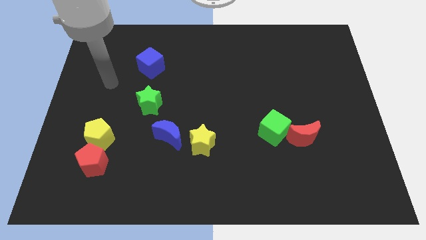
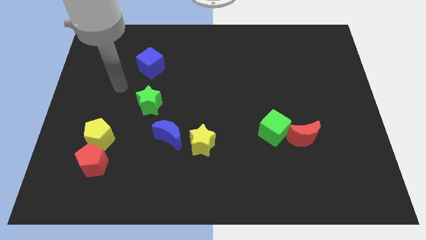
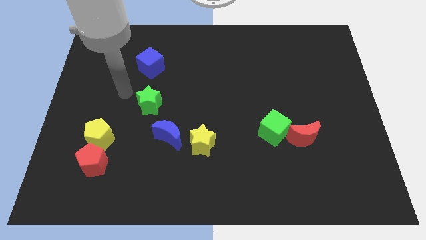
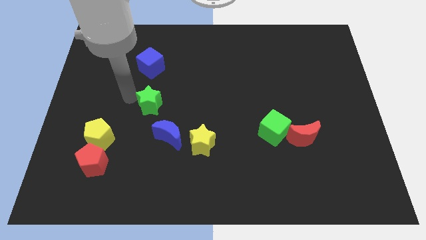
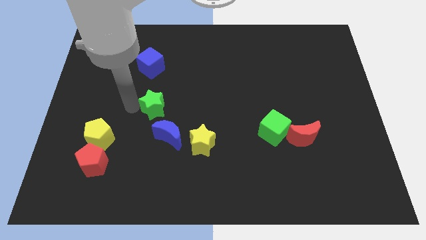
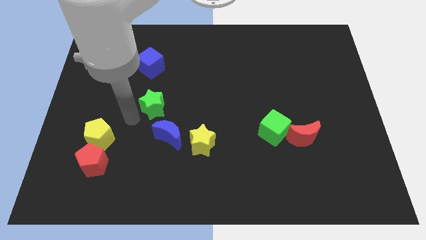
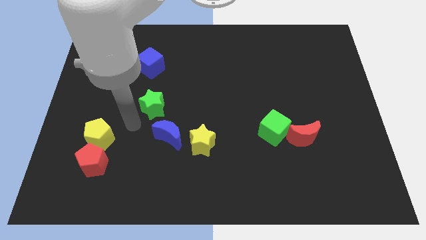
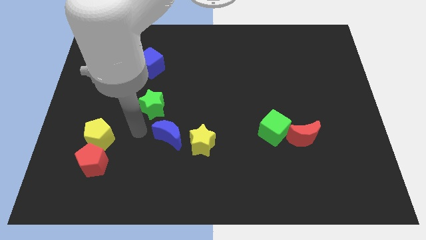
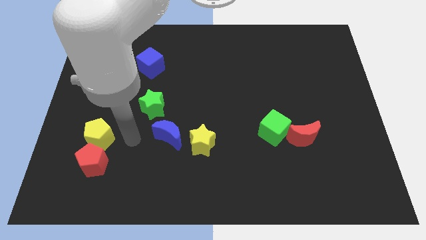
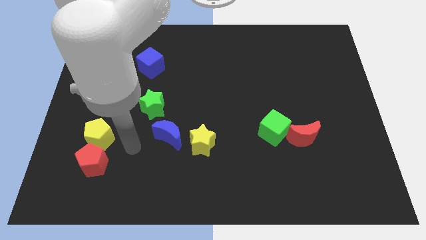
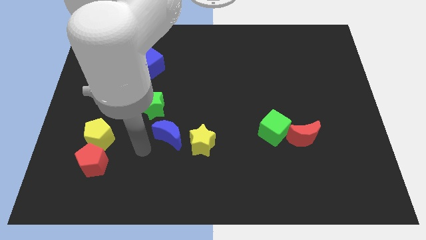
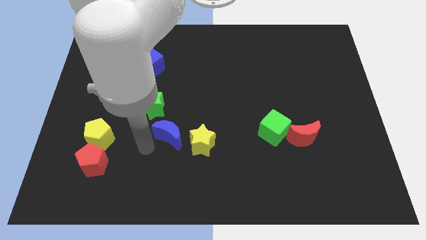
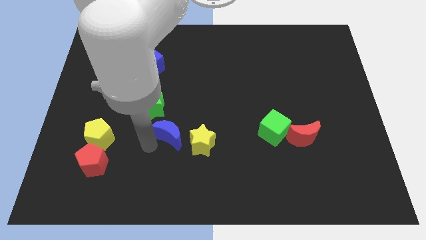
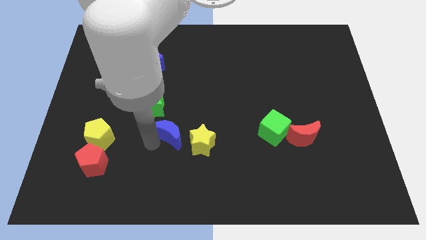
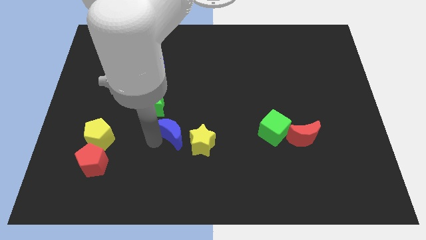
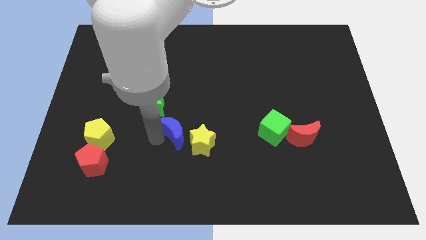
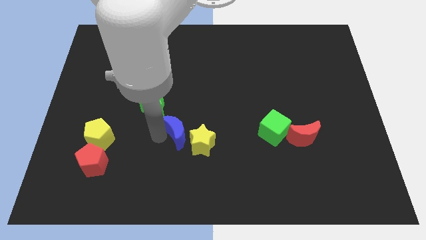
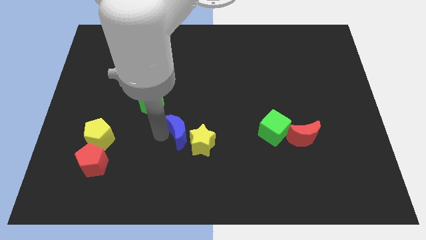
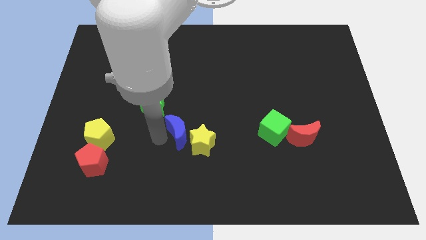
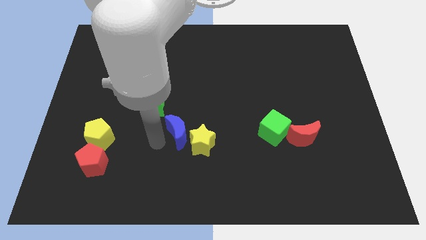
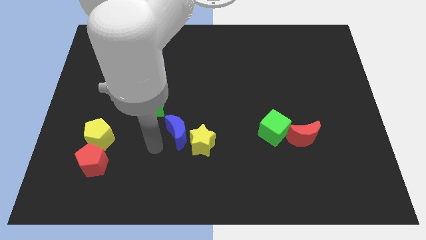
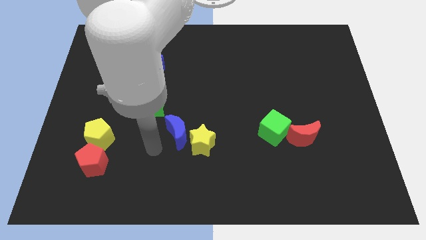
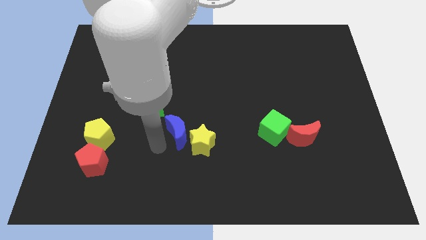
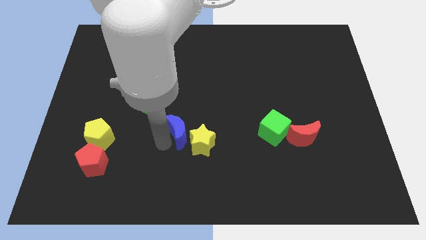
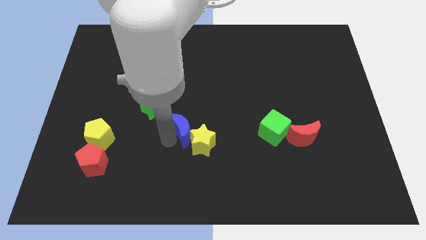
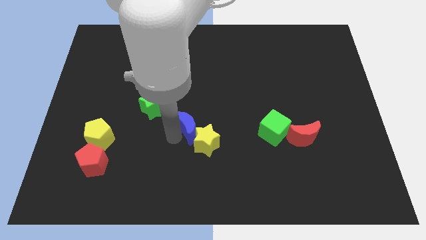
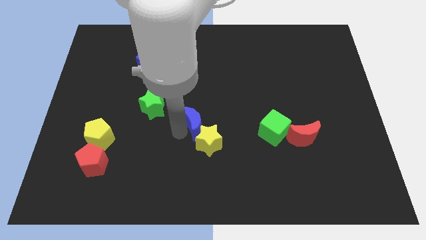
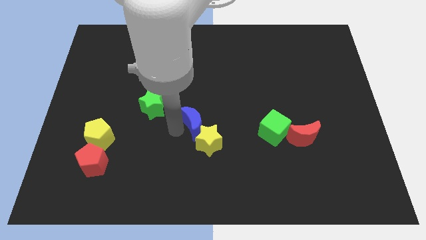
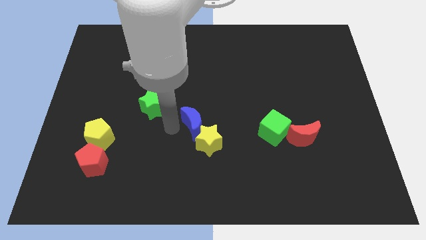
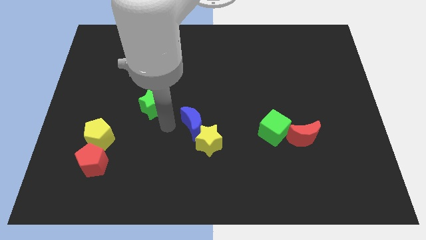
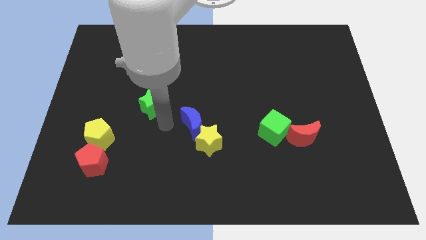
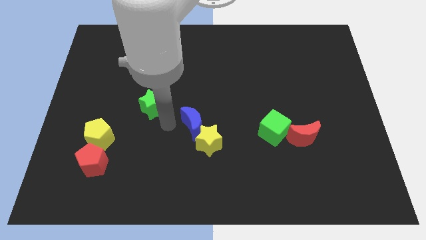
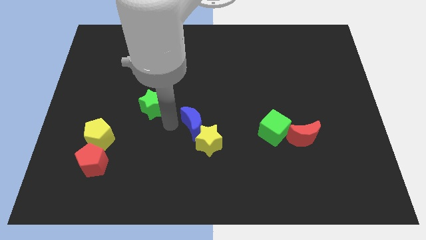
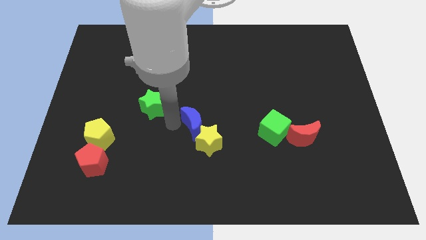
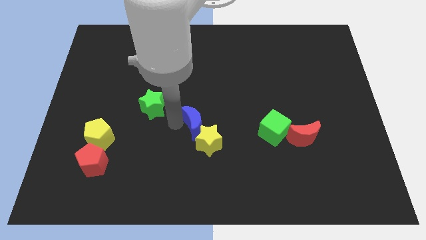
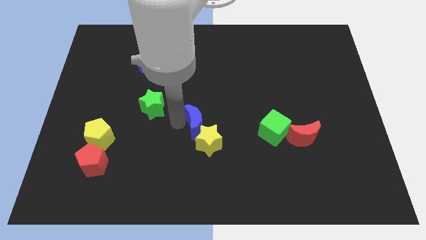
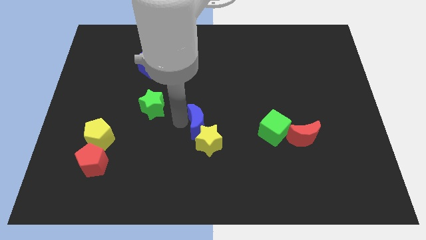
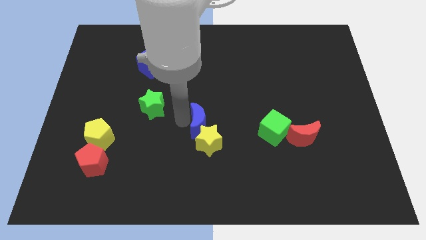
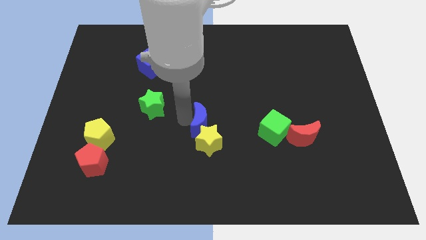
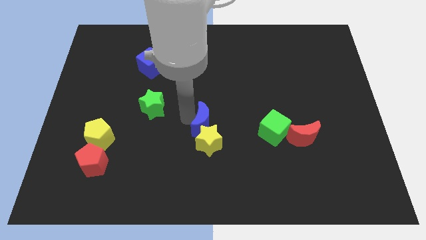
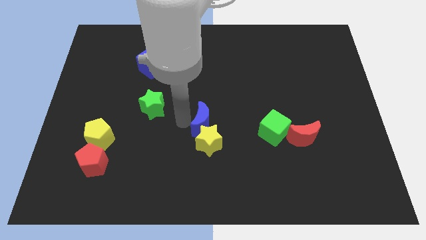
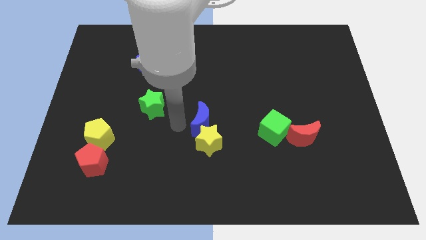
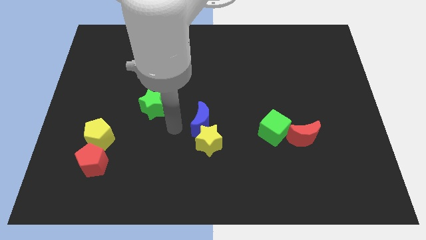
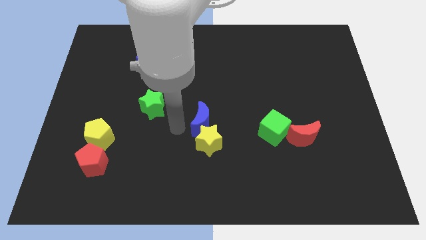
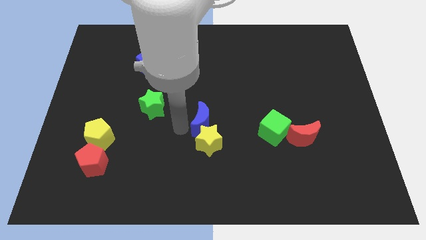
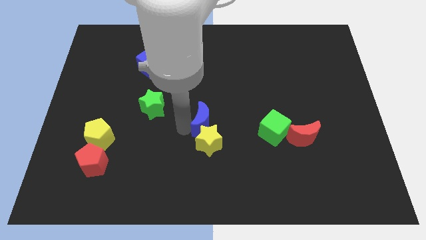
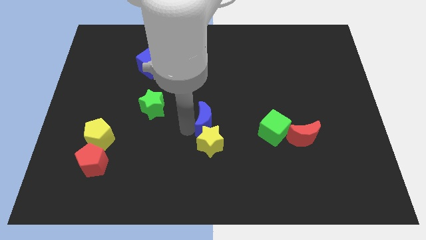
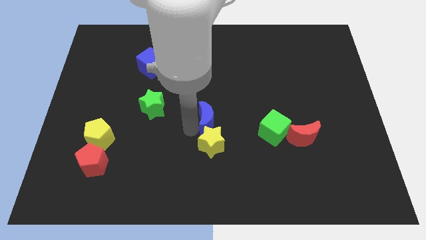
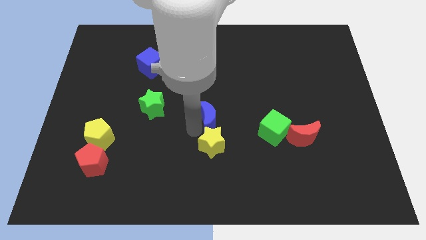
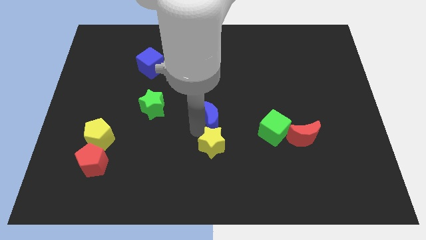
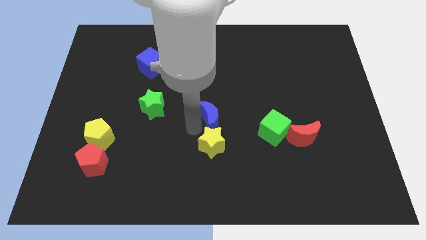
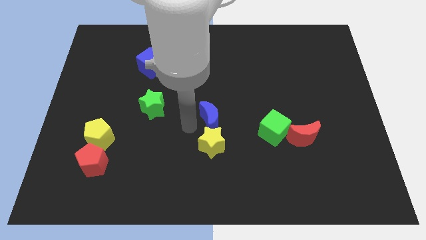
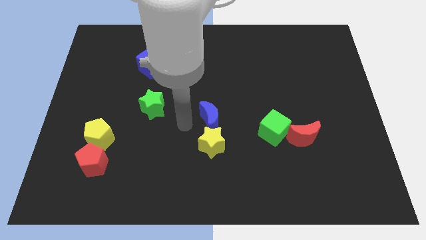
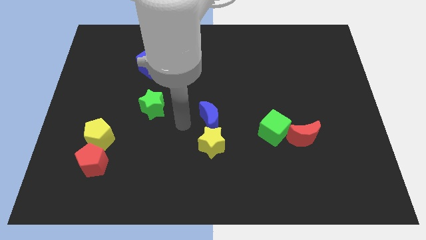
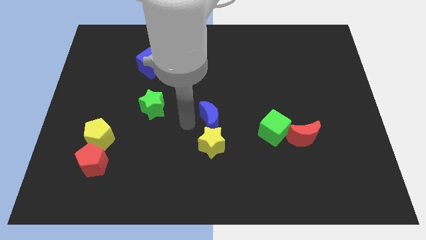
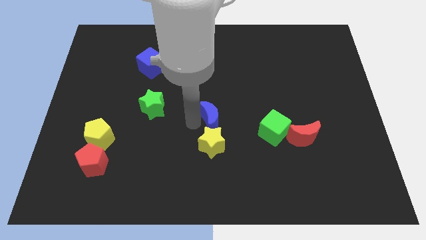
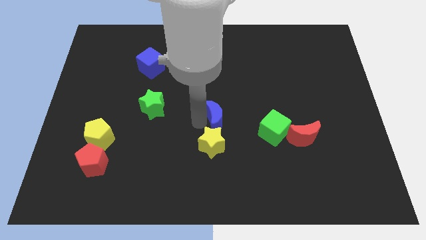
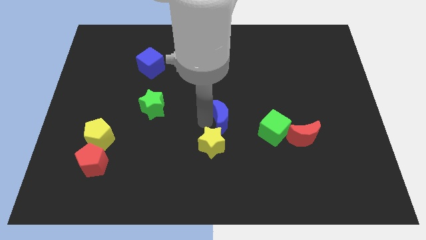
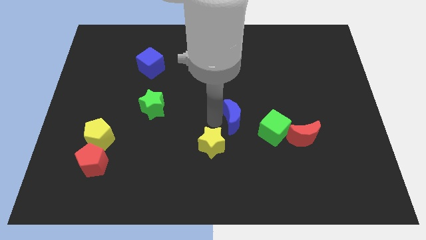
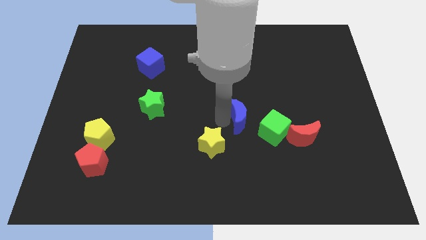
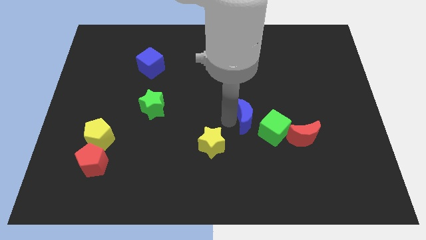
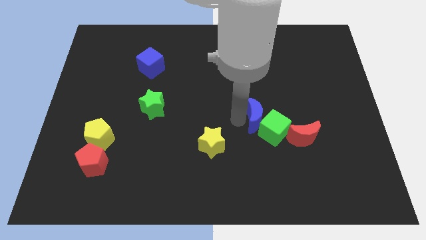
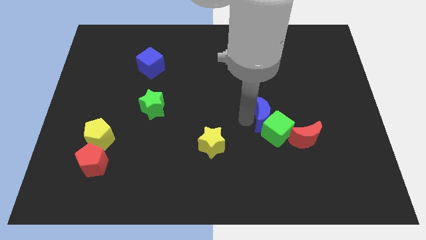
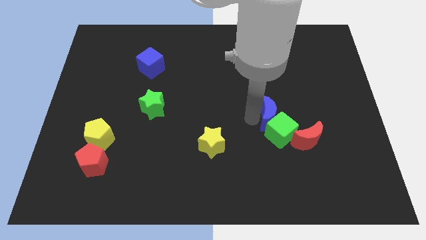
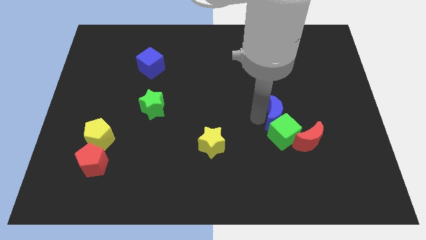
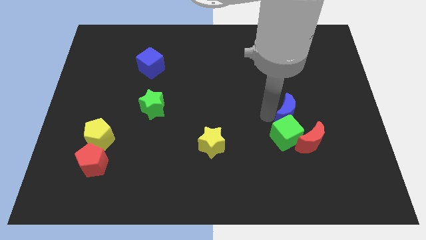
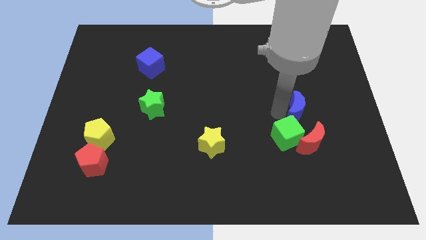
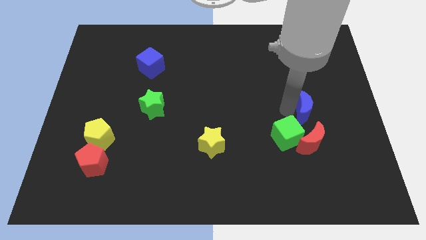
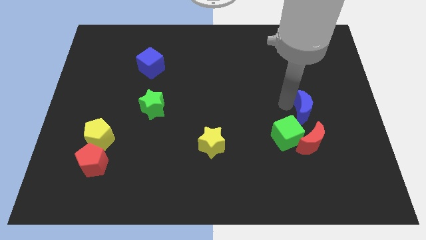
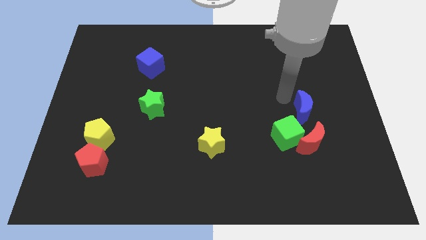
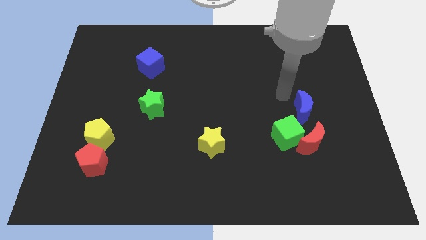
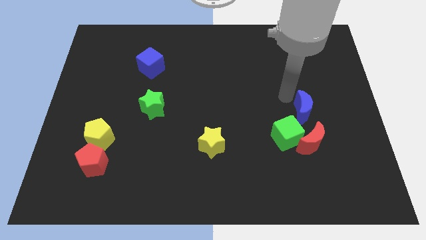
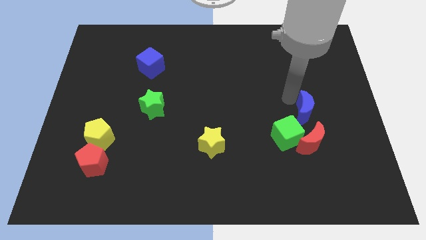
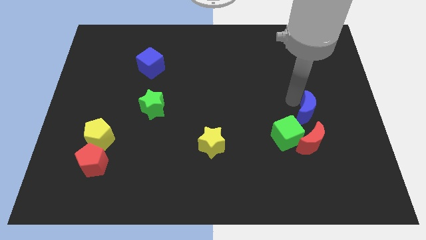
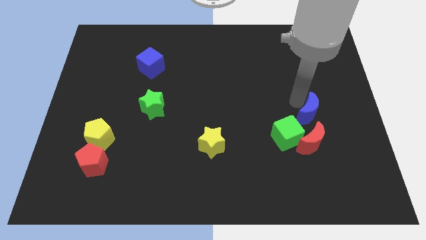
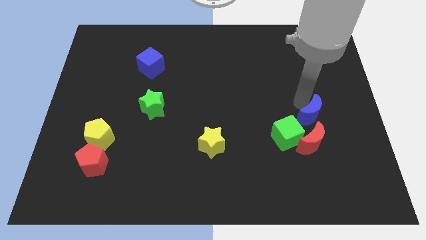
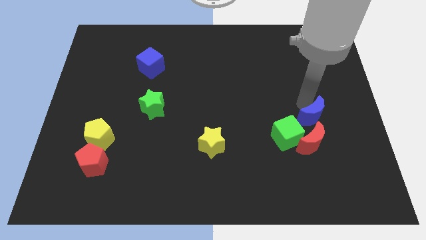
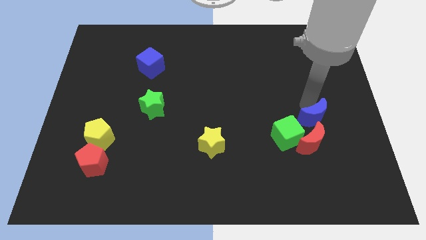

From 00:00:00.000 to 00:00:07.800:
push the blue moon to the right of the green cube
